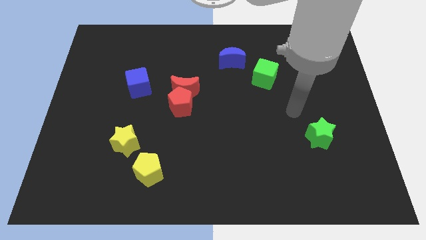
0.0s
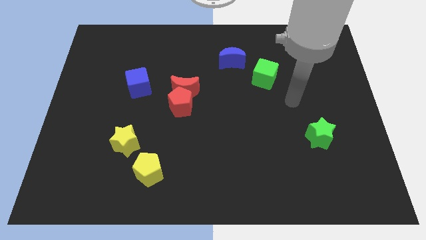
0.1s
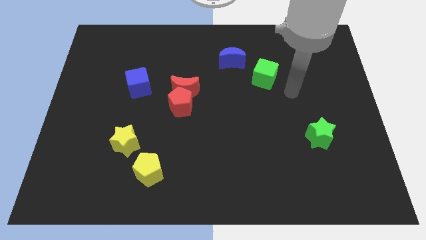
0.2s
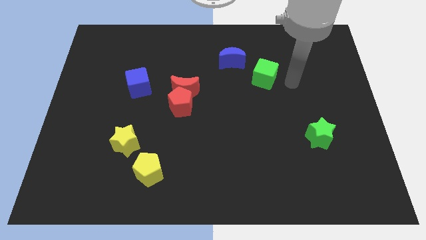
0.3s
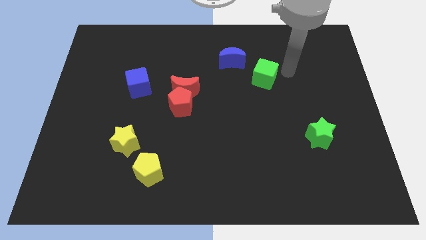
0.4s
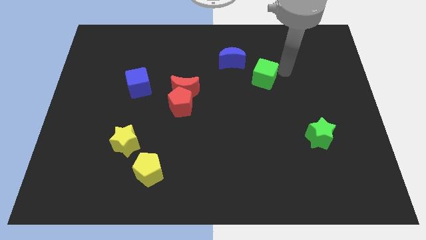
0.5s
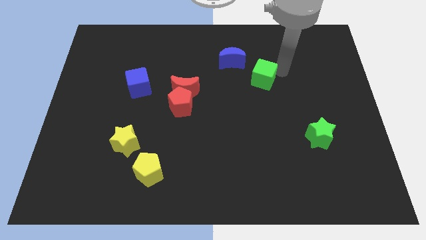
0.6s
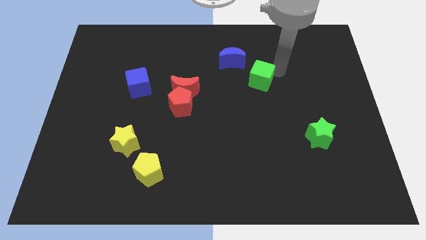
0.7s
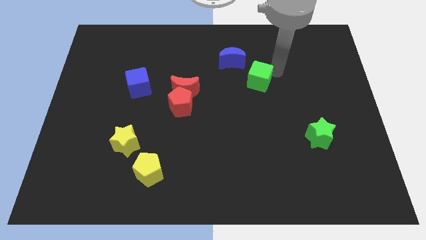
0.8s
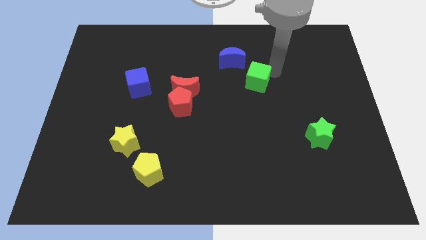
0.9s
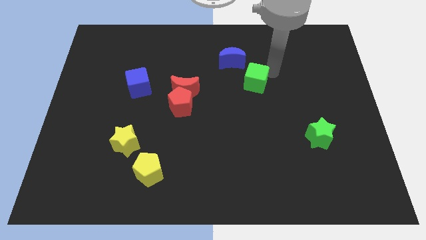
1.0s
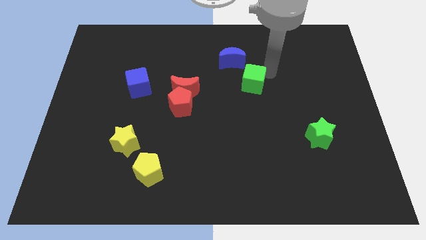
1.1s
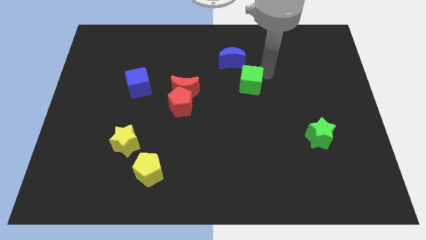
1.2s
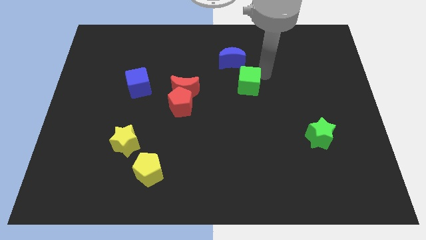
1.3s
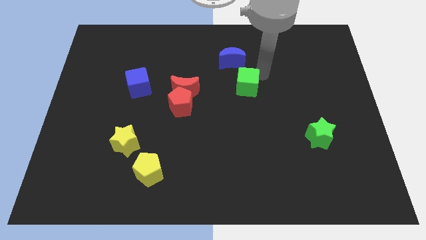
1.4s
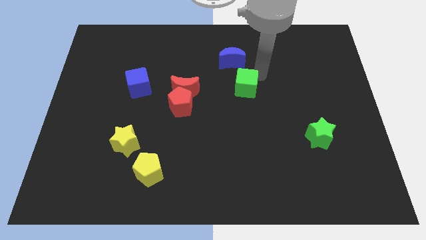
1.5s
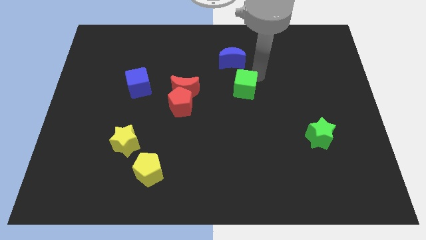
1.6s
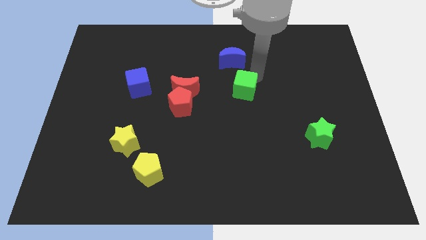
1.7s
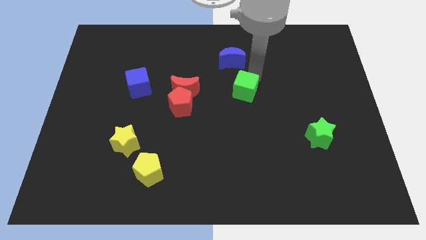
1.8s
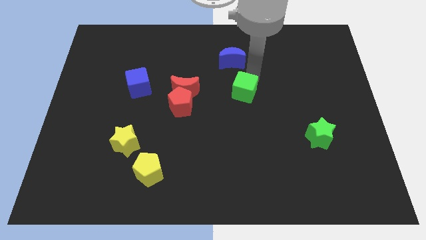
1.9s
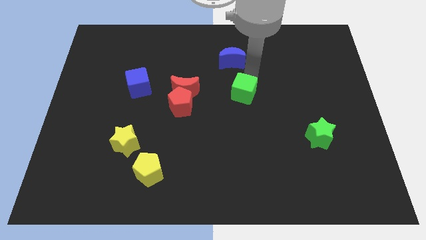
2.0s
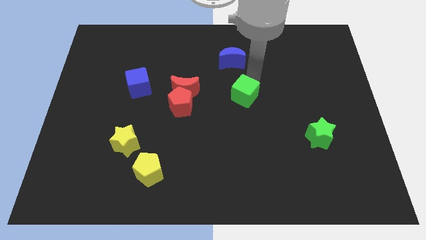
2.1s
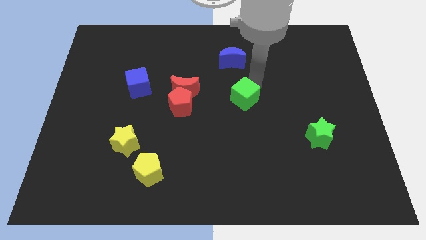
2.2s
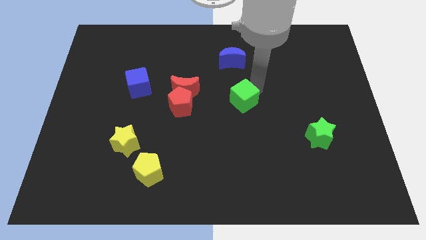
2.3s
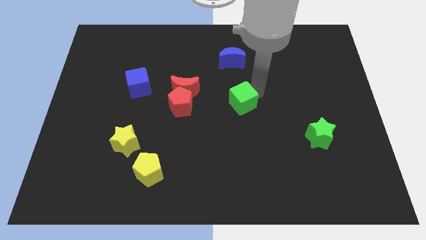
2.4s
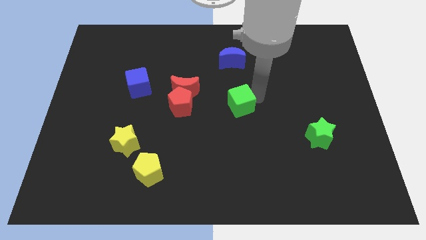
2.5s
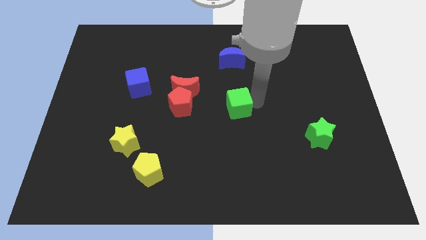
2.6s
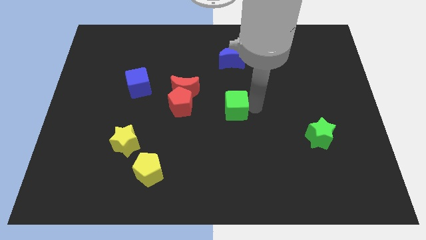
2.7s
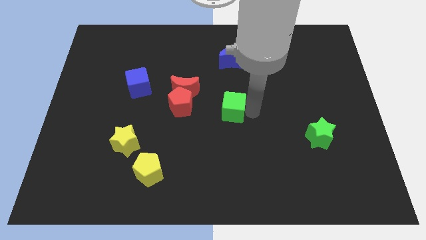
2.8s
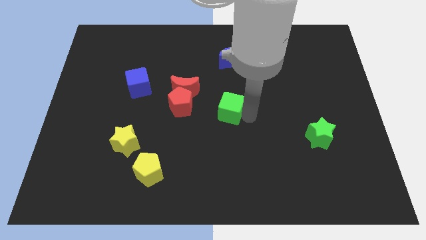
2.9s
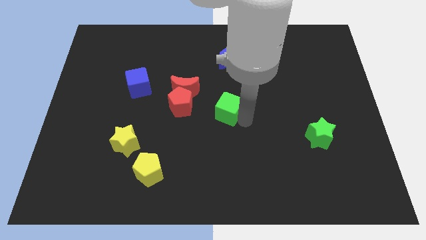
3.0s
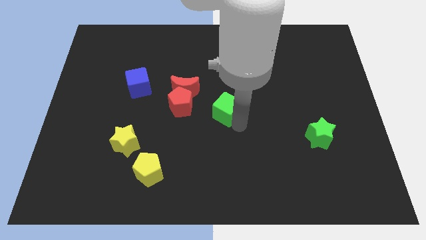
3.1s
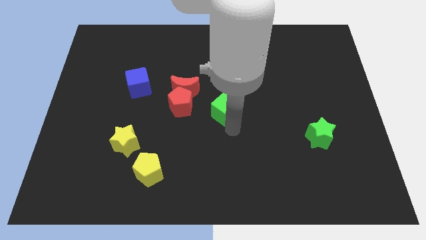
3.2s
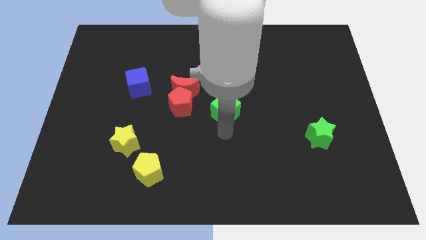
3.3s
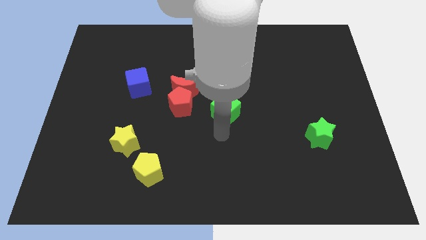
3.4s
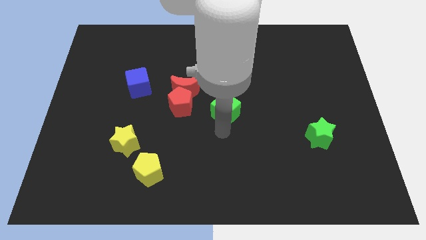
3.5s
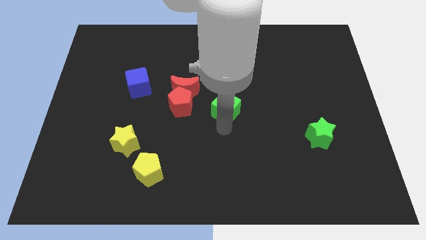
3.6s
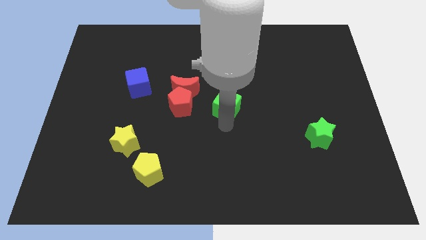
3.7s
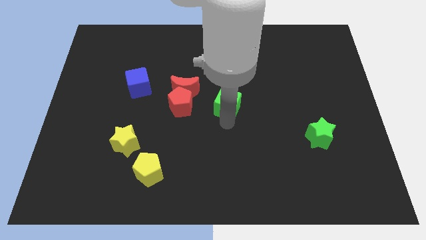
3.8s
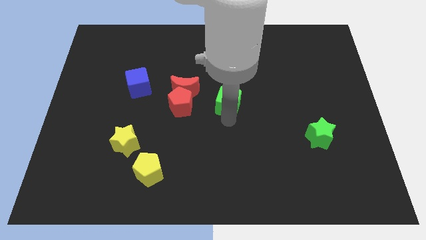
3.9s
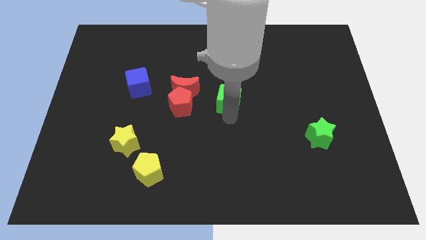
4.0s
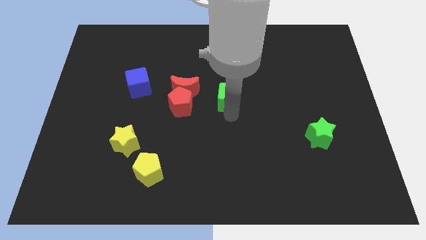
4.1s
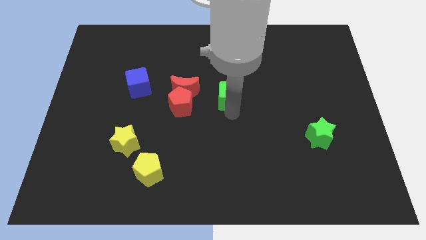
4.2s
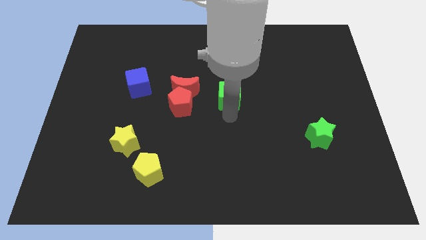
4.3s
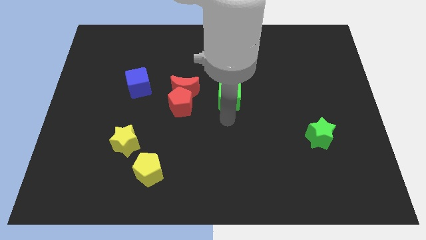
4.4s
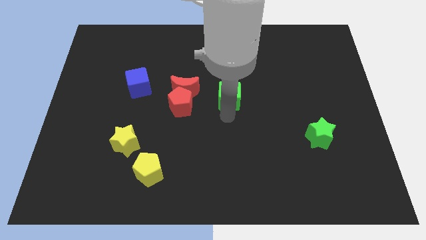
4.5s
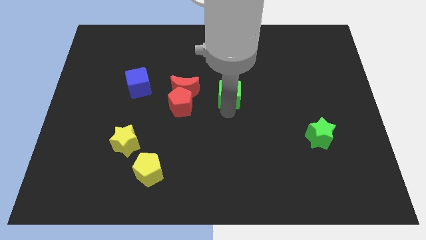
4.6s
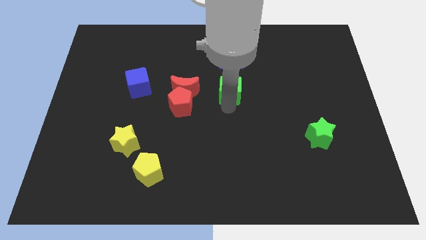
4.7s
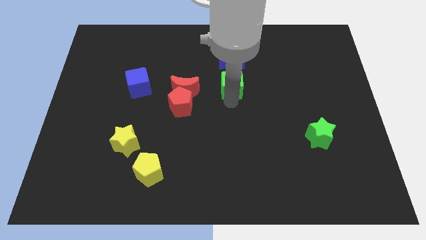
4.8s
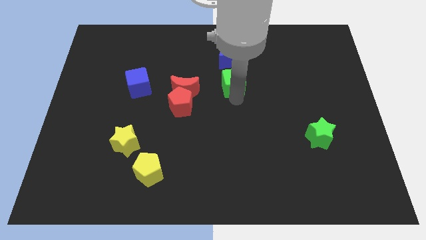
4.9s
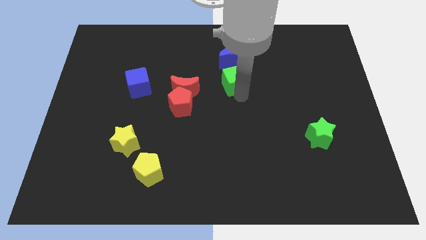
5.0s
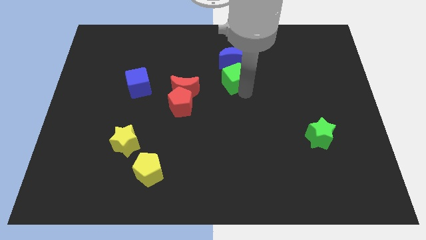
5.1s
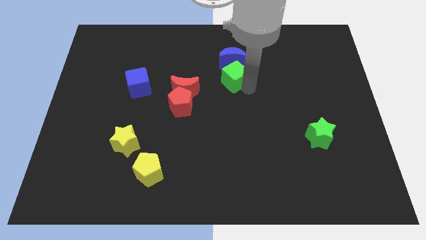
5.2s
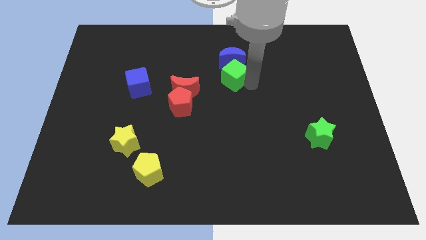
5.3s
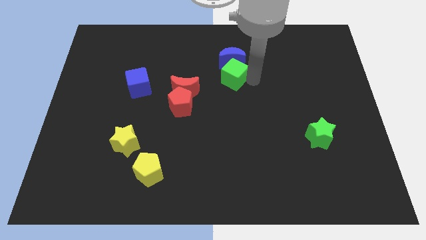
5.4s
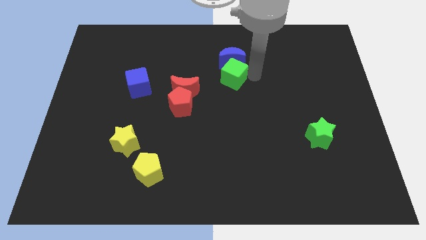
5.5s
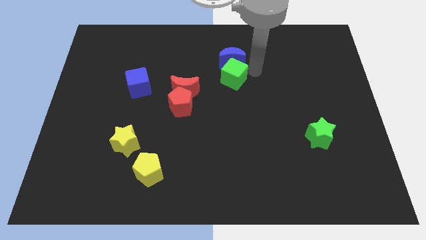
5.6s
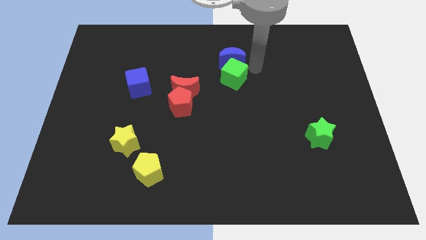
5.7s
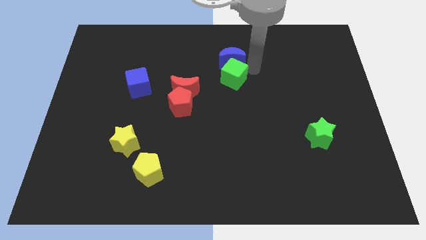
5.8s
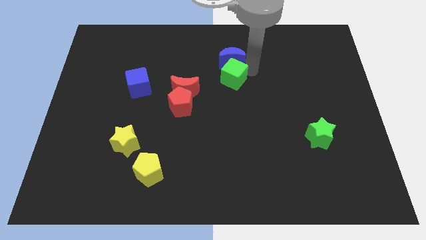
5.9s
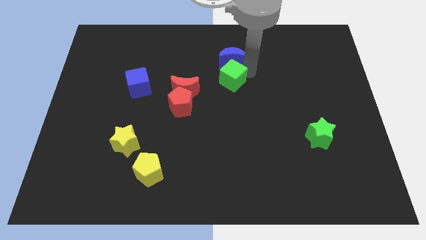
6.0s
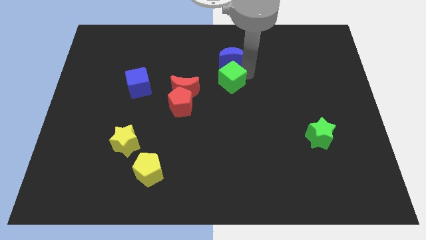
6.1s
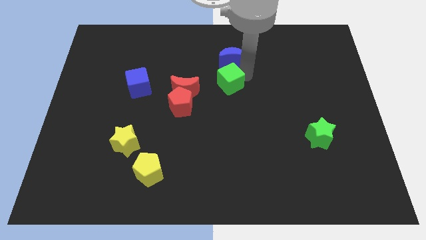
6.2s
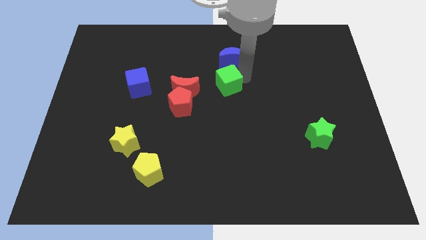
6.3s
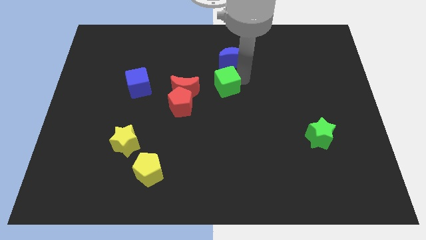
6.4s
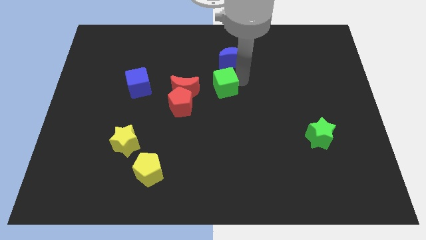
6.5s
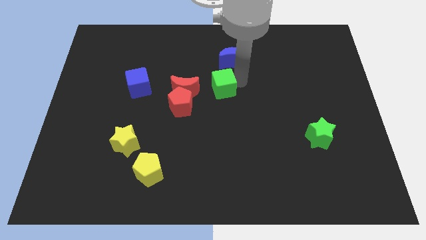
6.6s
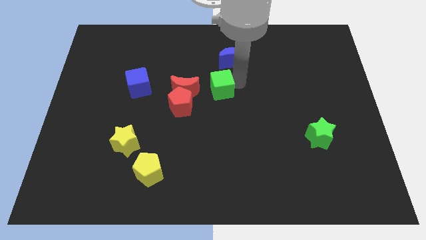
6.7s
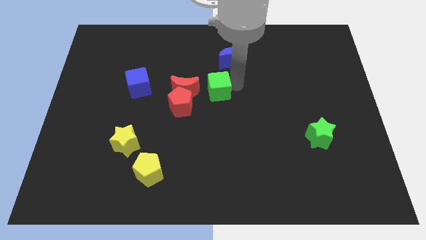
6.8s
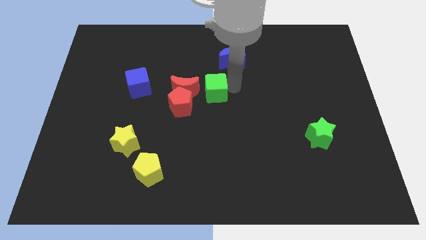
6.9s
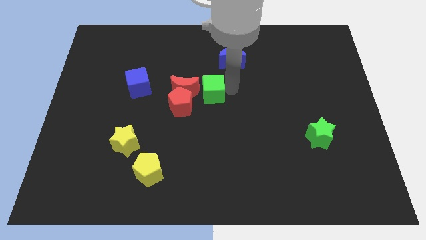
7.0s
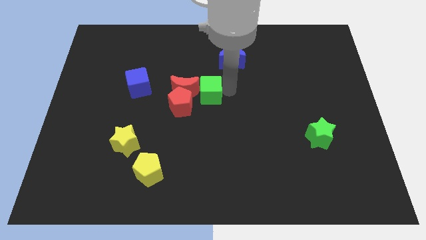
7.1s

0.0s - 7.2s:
slide the green cube towards the red moon

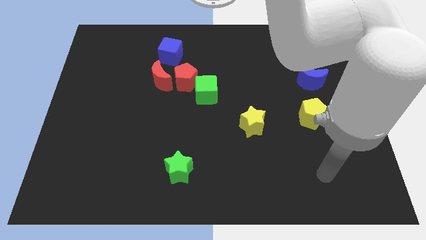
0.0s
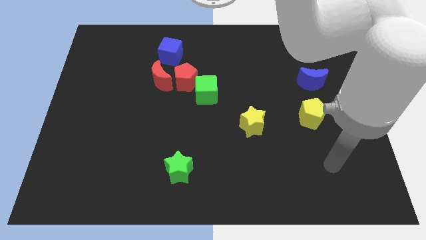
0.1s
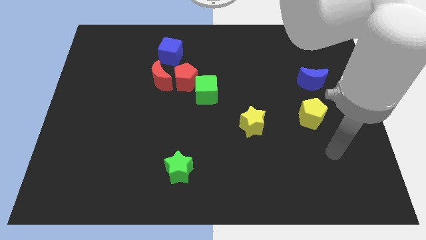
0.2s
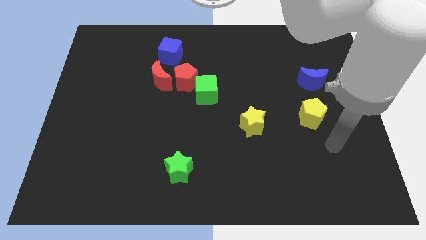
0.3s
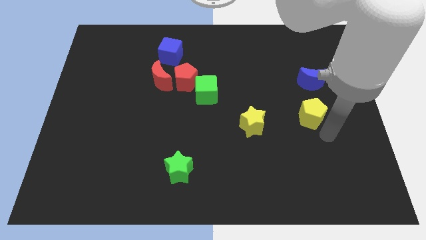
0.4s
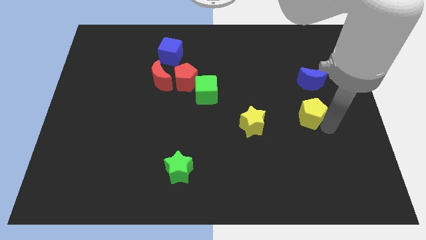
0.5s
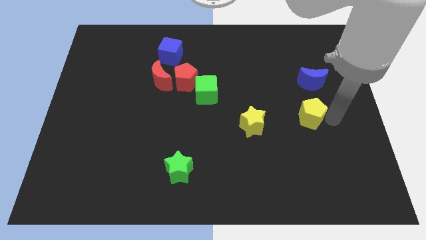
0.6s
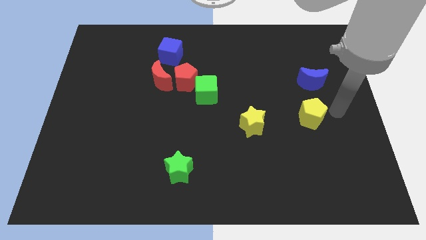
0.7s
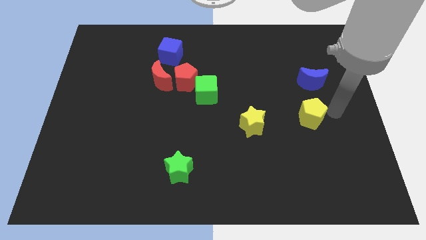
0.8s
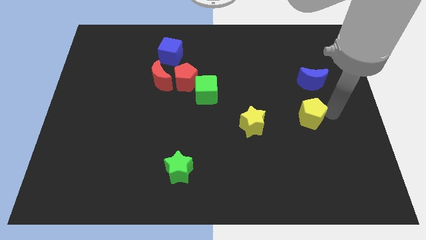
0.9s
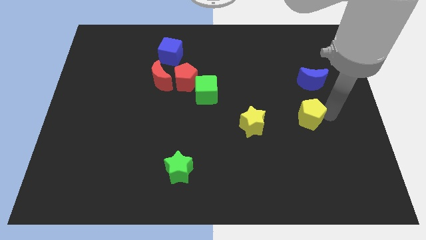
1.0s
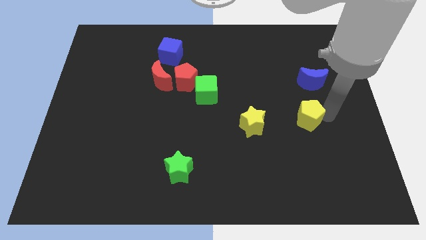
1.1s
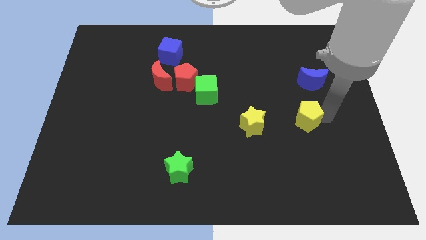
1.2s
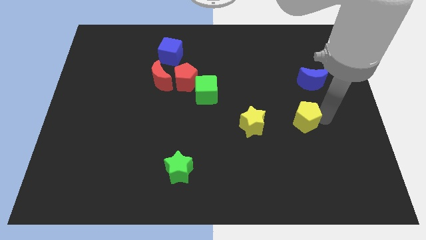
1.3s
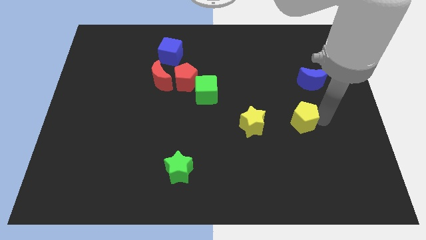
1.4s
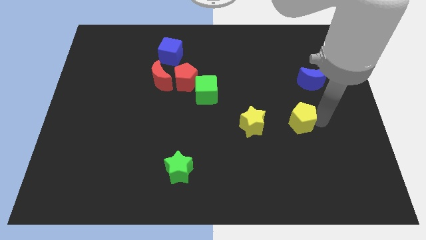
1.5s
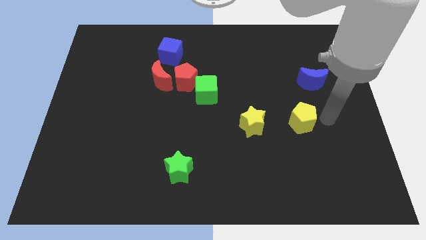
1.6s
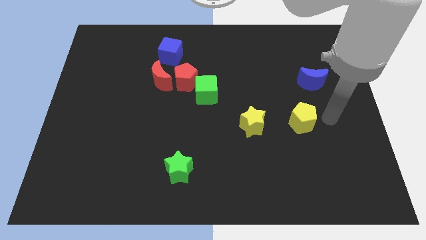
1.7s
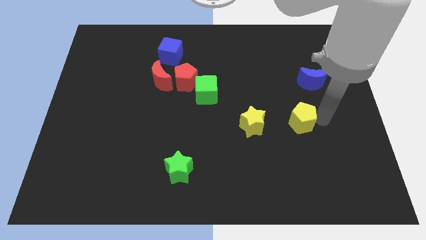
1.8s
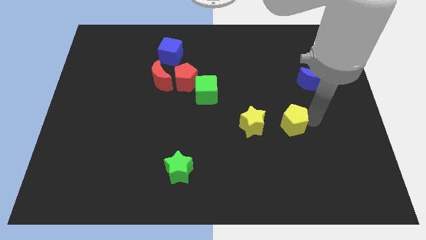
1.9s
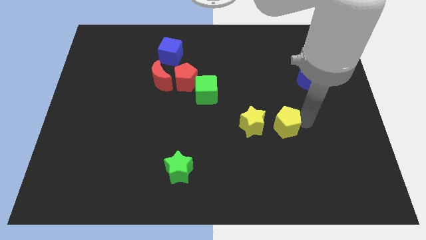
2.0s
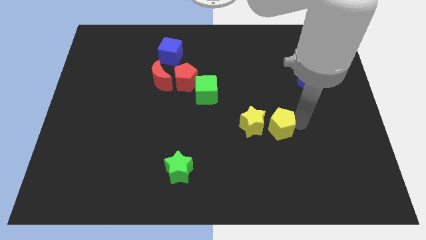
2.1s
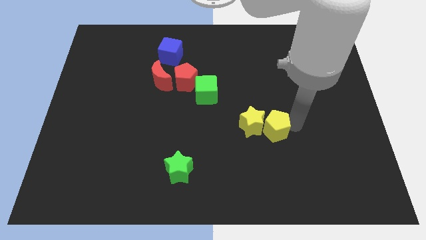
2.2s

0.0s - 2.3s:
slide the yellow pentagon next to the yellow star
